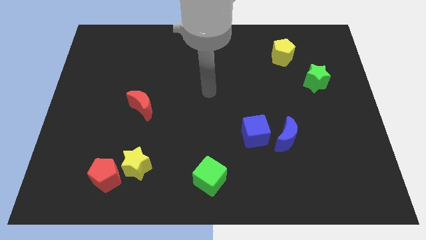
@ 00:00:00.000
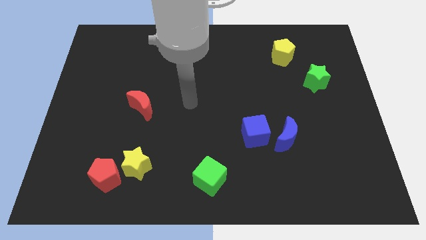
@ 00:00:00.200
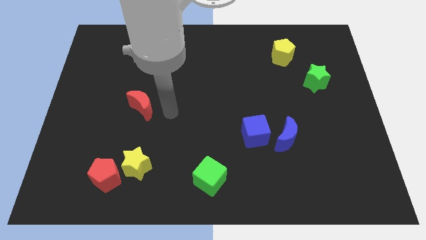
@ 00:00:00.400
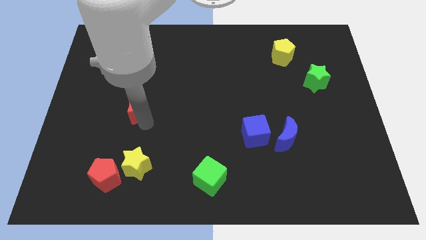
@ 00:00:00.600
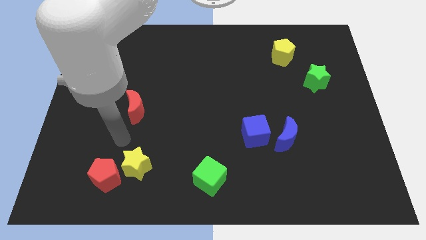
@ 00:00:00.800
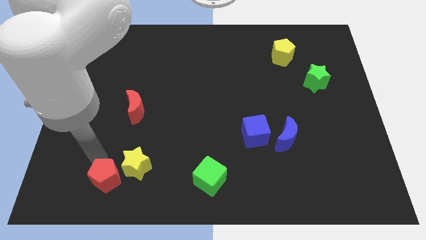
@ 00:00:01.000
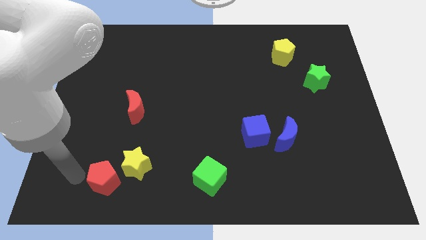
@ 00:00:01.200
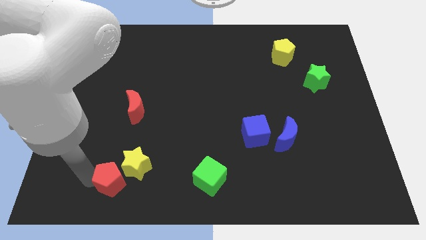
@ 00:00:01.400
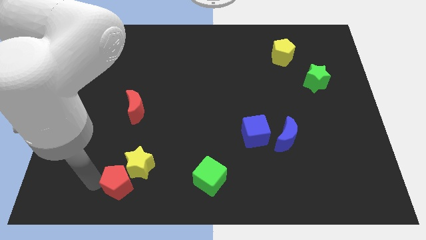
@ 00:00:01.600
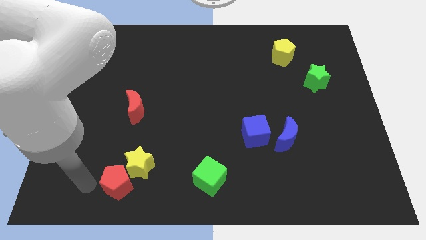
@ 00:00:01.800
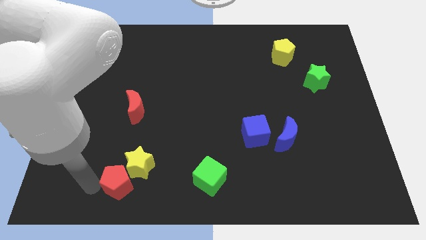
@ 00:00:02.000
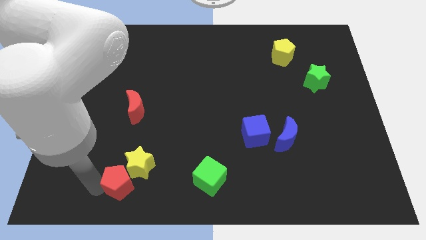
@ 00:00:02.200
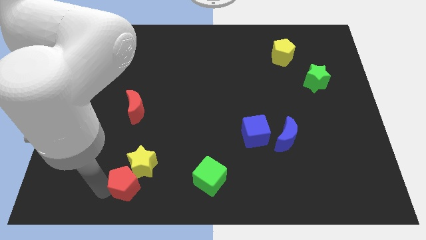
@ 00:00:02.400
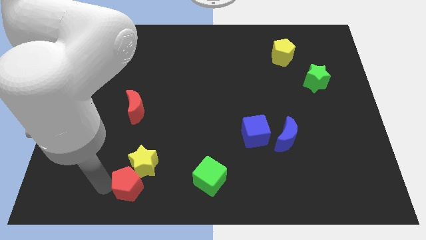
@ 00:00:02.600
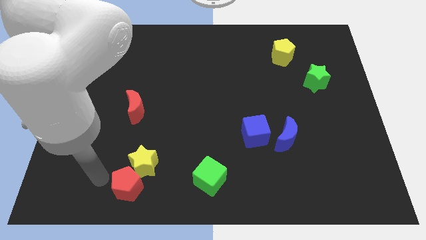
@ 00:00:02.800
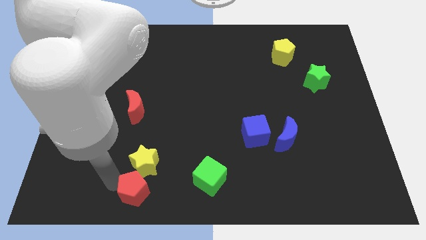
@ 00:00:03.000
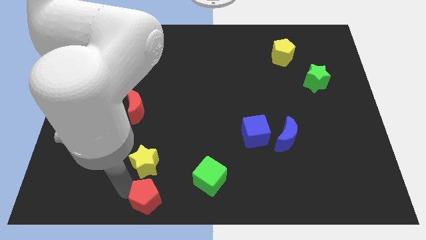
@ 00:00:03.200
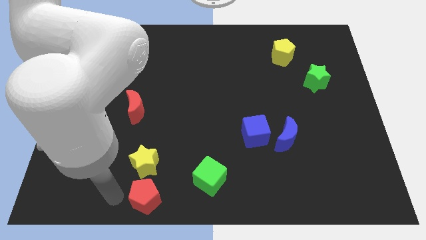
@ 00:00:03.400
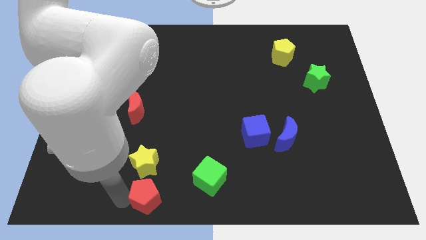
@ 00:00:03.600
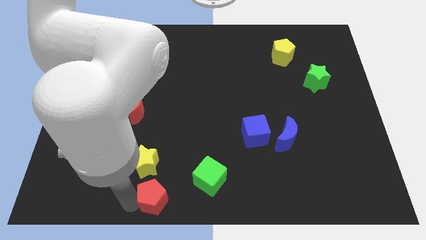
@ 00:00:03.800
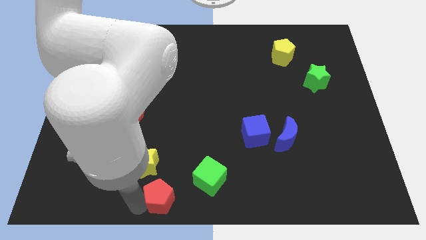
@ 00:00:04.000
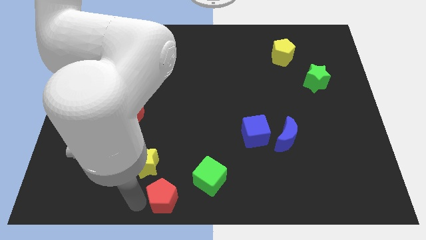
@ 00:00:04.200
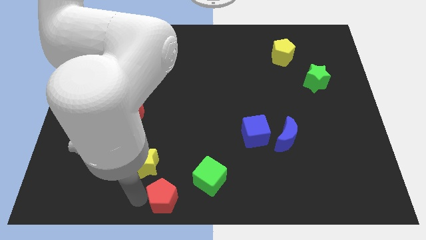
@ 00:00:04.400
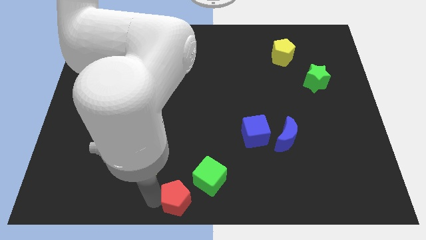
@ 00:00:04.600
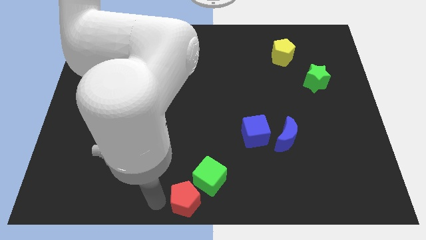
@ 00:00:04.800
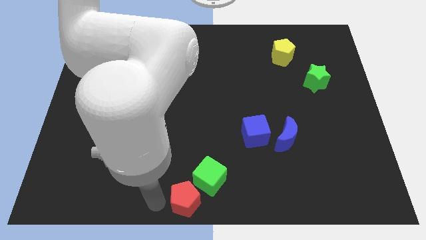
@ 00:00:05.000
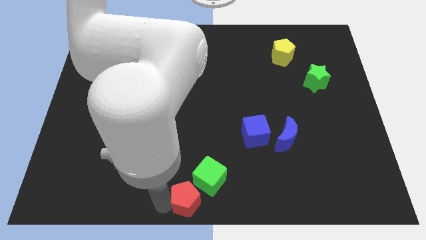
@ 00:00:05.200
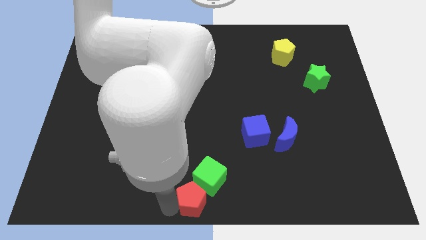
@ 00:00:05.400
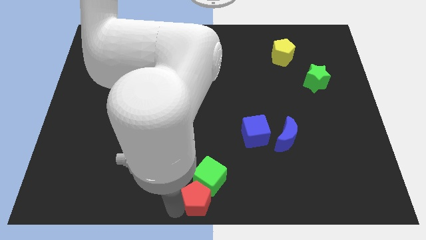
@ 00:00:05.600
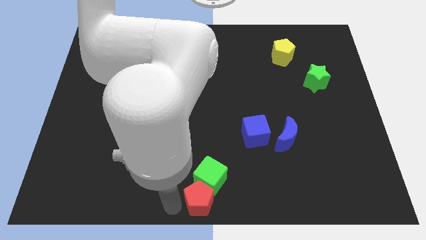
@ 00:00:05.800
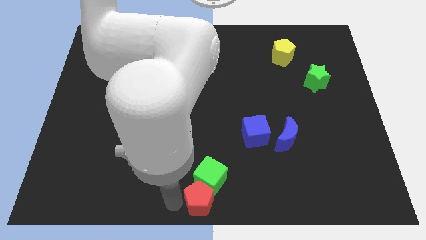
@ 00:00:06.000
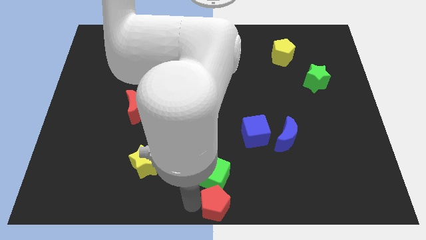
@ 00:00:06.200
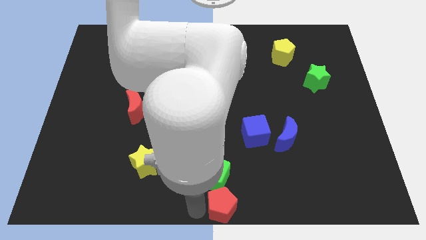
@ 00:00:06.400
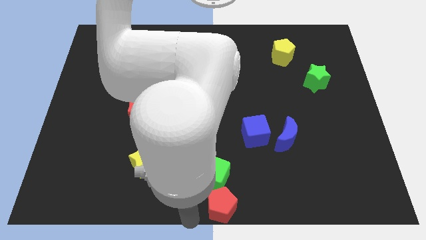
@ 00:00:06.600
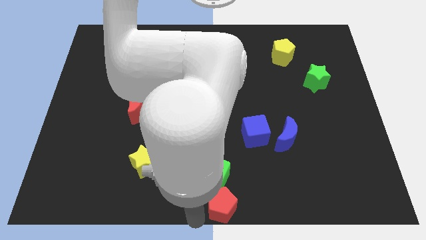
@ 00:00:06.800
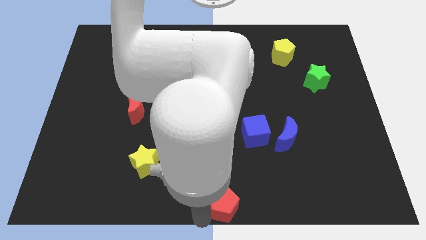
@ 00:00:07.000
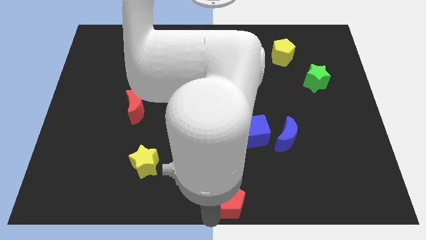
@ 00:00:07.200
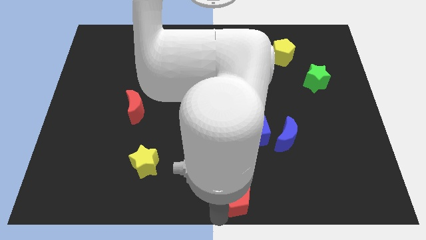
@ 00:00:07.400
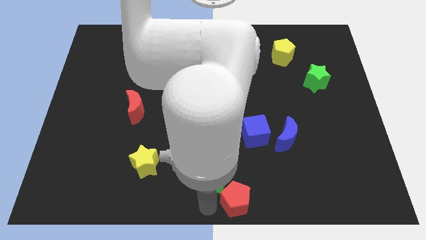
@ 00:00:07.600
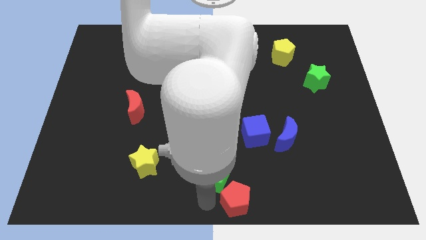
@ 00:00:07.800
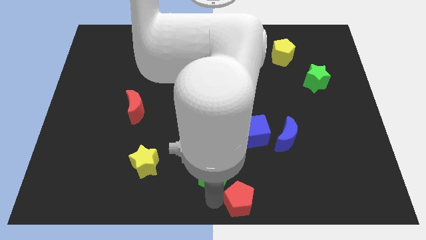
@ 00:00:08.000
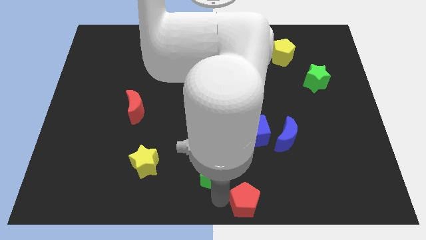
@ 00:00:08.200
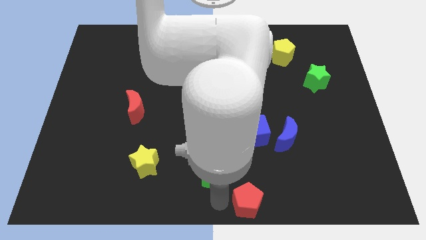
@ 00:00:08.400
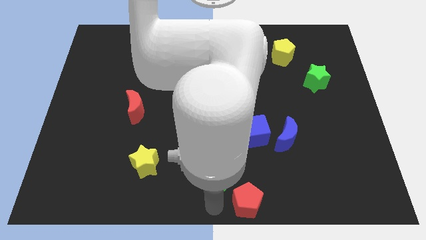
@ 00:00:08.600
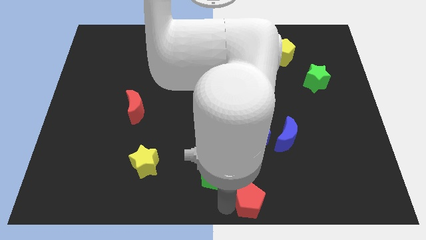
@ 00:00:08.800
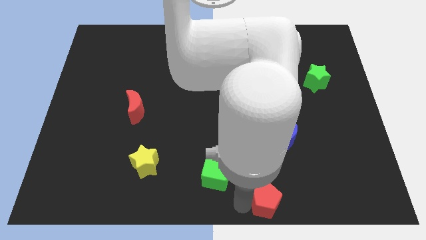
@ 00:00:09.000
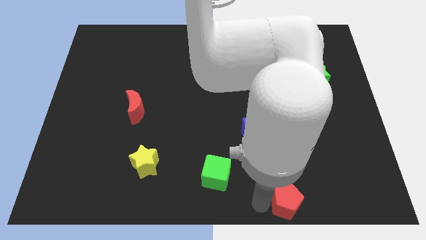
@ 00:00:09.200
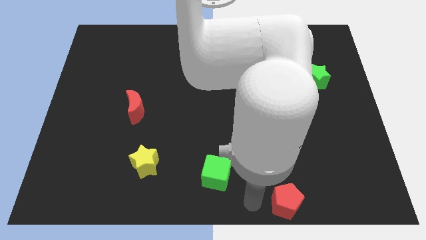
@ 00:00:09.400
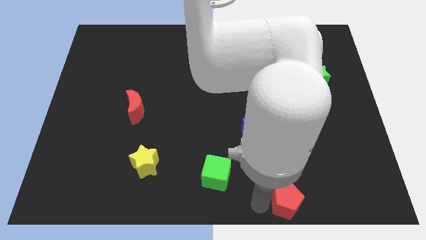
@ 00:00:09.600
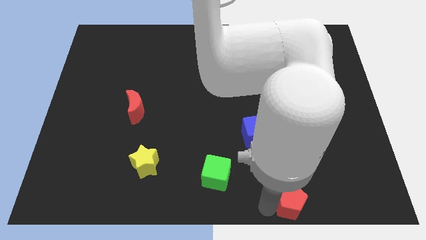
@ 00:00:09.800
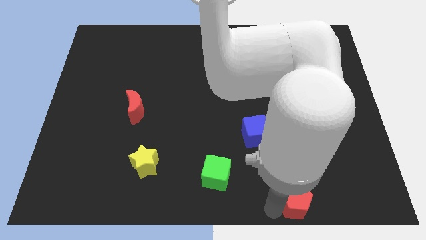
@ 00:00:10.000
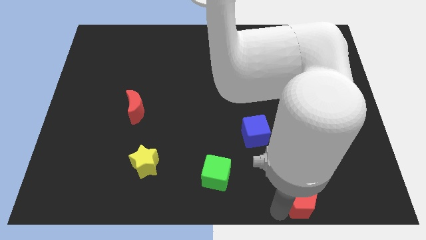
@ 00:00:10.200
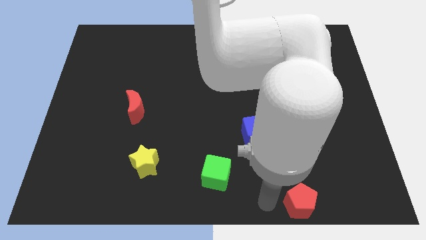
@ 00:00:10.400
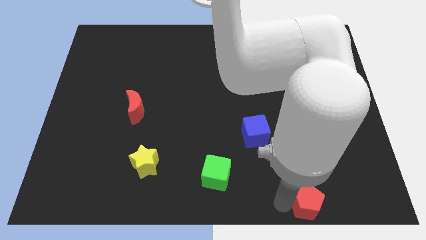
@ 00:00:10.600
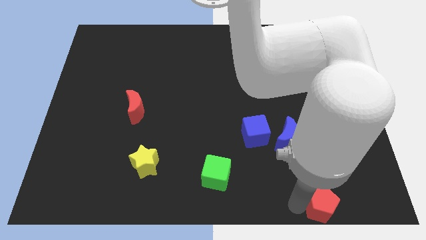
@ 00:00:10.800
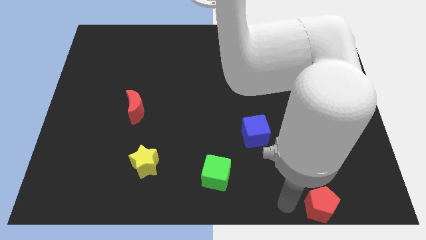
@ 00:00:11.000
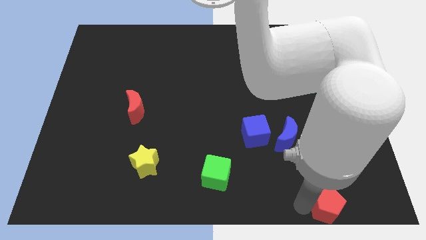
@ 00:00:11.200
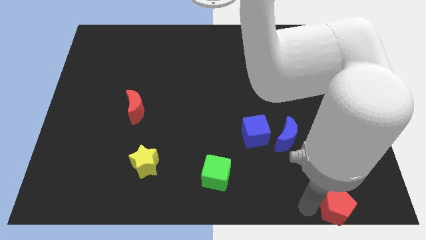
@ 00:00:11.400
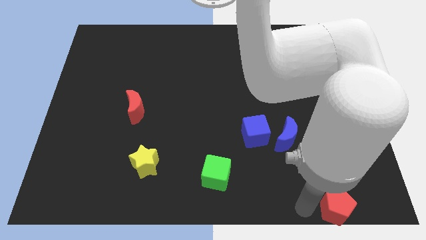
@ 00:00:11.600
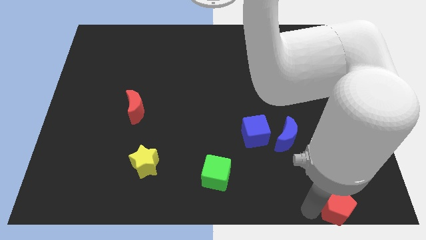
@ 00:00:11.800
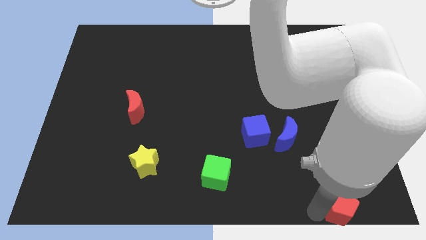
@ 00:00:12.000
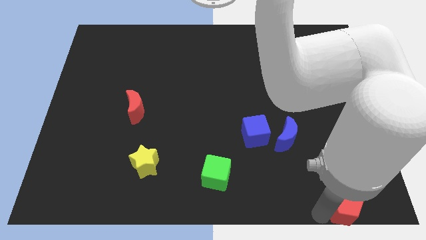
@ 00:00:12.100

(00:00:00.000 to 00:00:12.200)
slide the red pentagon to the bottom right of the board
